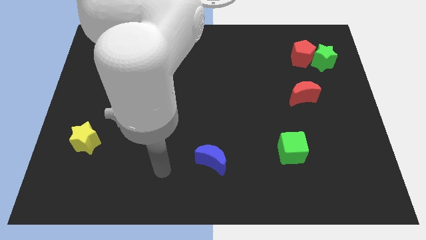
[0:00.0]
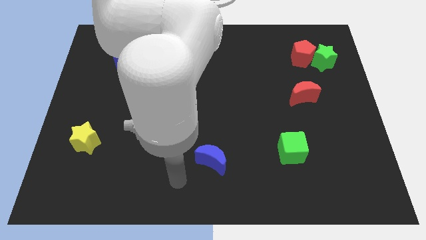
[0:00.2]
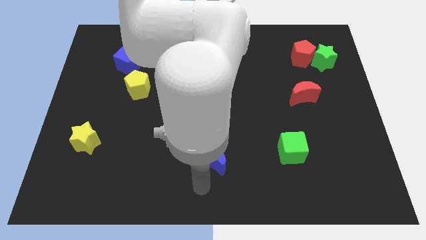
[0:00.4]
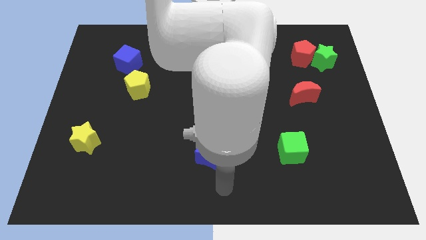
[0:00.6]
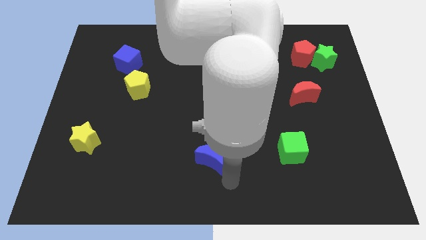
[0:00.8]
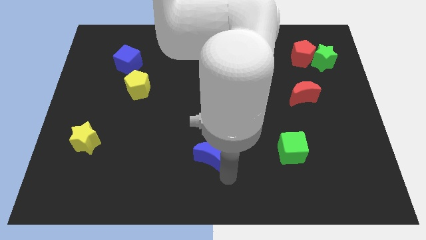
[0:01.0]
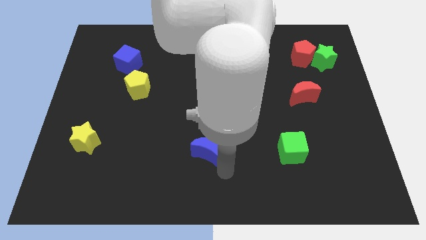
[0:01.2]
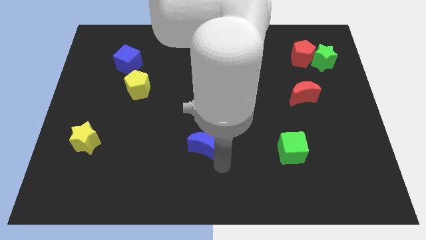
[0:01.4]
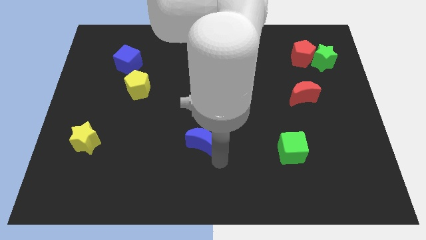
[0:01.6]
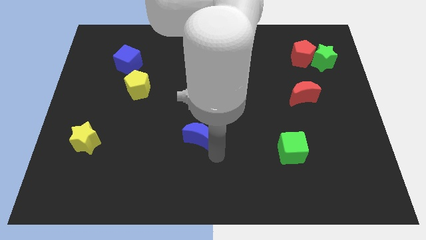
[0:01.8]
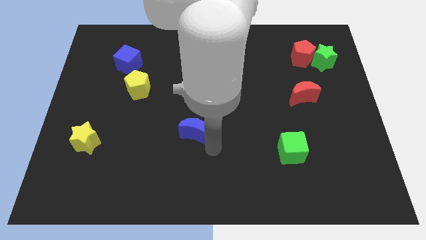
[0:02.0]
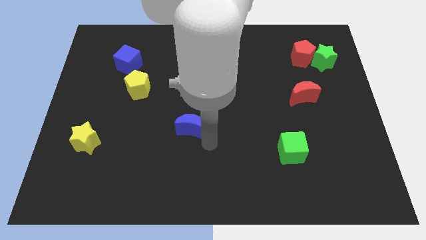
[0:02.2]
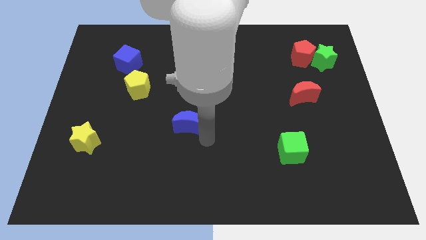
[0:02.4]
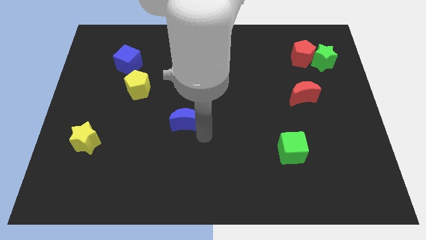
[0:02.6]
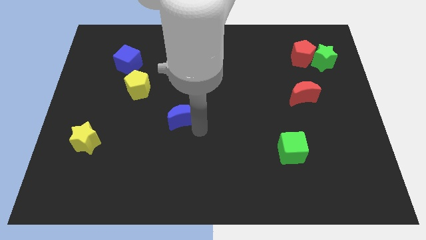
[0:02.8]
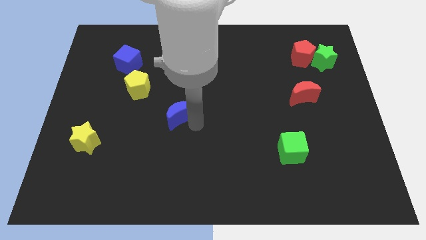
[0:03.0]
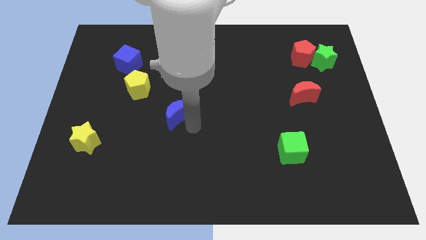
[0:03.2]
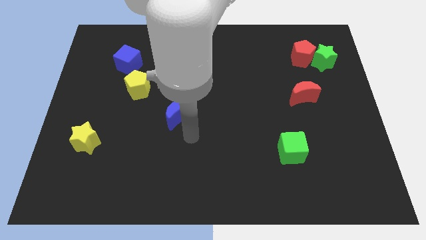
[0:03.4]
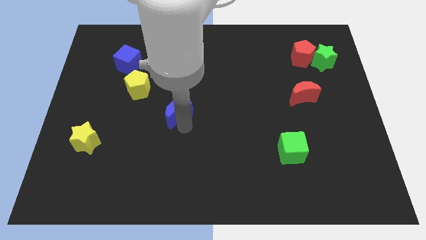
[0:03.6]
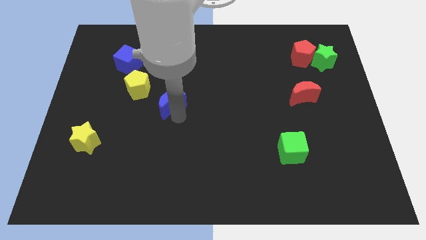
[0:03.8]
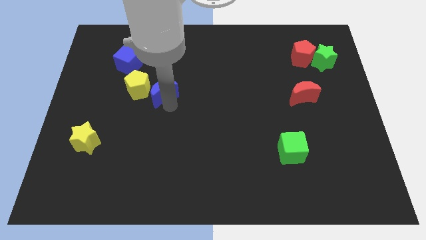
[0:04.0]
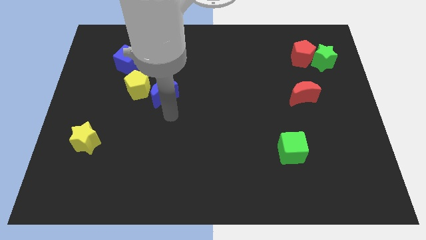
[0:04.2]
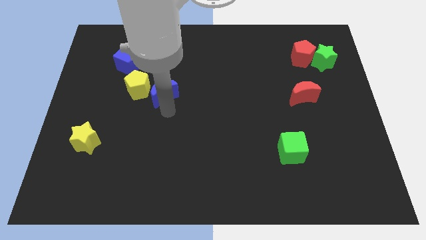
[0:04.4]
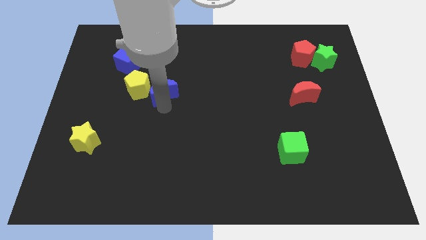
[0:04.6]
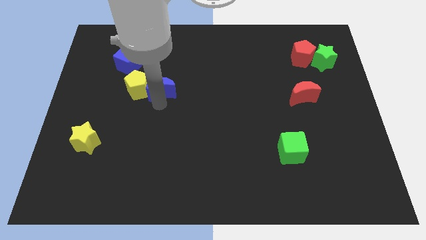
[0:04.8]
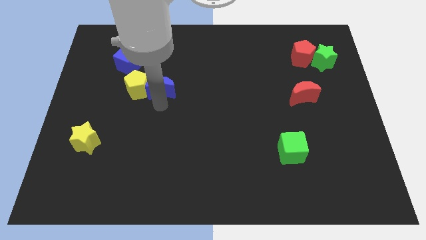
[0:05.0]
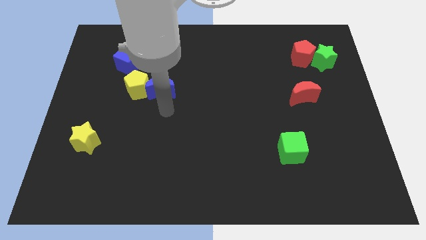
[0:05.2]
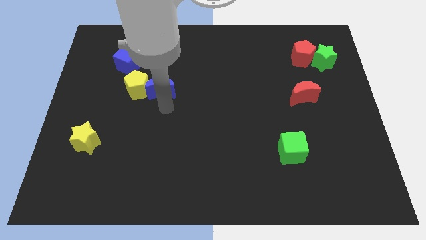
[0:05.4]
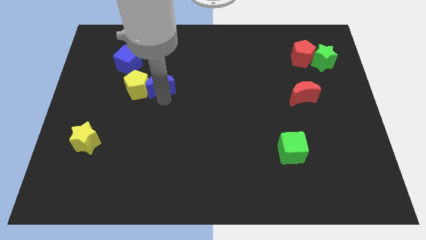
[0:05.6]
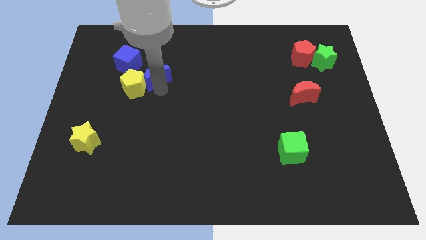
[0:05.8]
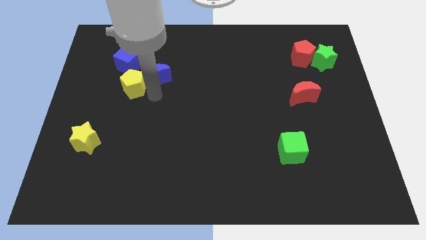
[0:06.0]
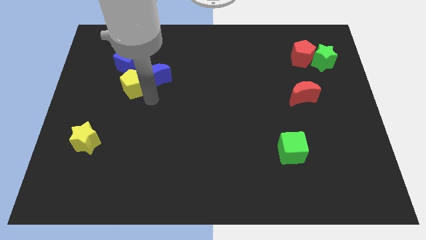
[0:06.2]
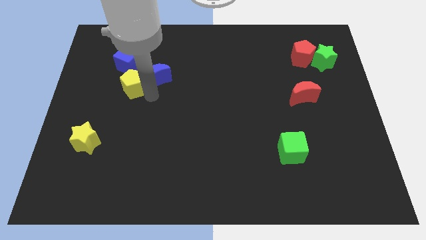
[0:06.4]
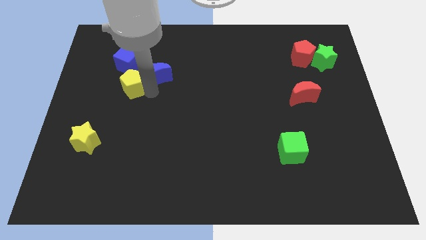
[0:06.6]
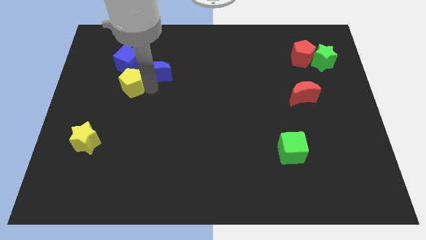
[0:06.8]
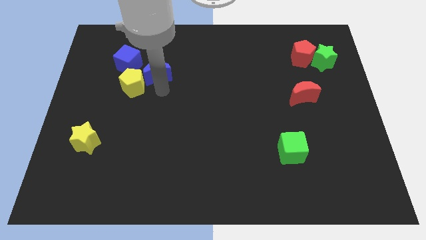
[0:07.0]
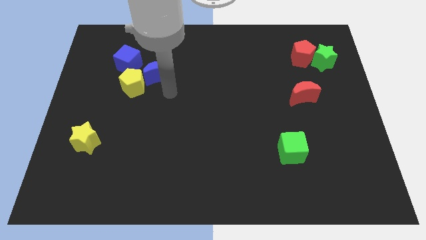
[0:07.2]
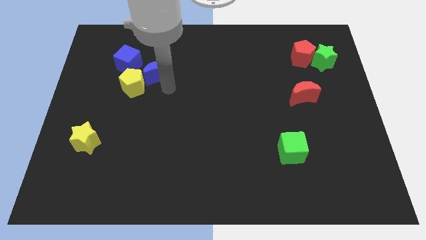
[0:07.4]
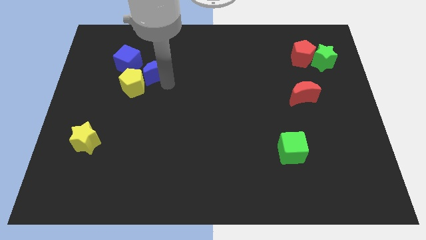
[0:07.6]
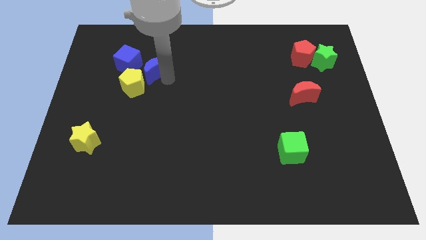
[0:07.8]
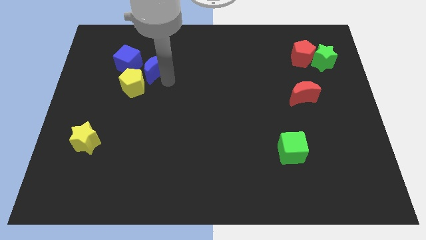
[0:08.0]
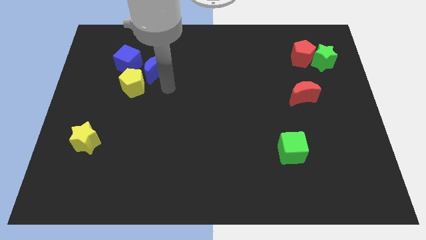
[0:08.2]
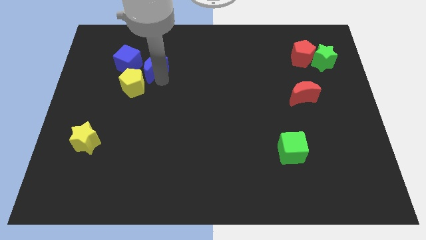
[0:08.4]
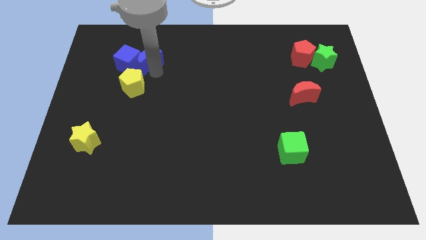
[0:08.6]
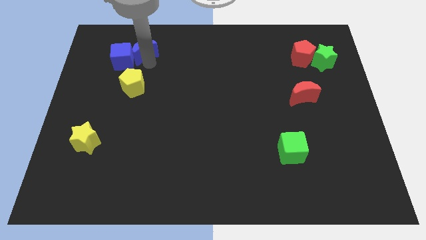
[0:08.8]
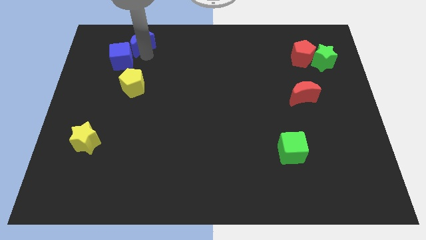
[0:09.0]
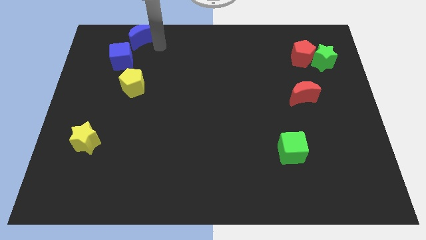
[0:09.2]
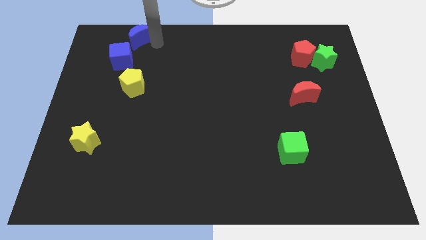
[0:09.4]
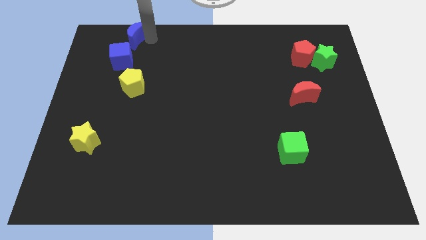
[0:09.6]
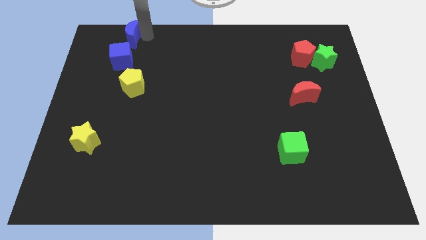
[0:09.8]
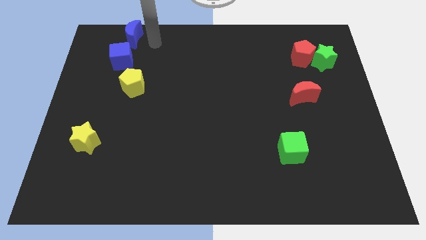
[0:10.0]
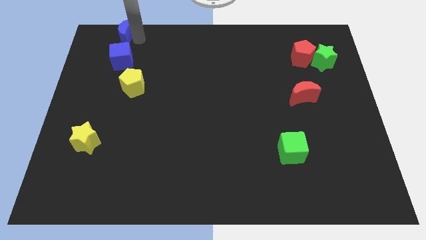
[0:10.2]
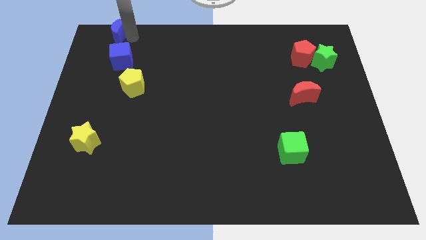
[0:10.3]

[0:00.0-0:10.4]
push the blue moon to the top left corner

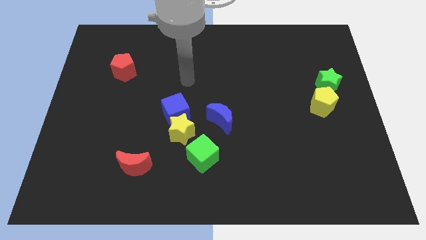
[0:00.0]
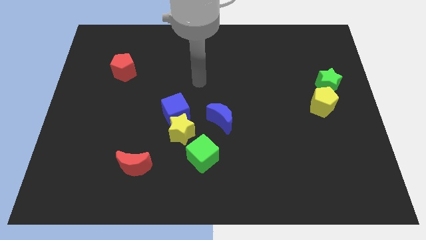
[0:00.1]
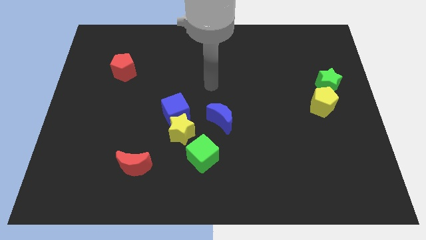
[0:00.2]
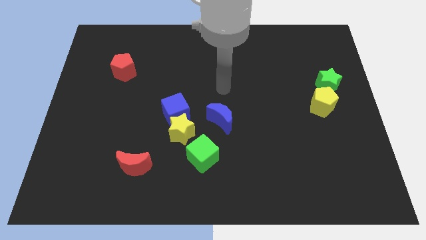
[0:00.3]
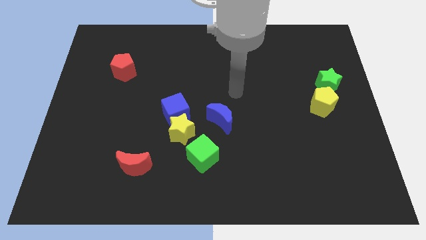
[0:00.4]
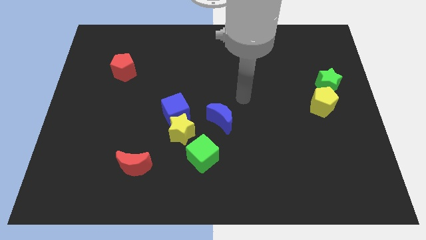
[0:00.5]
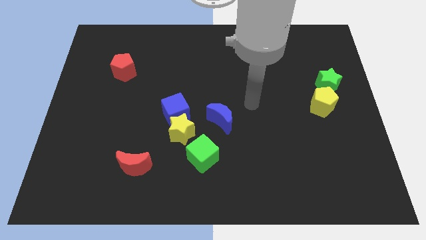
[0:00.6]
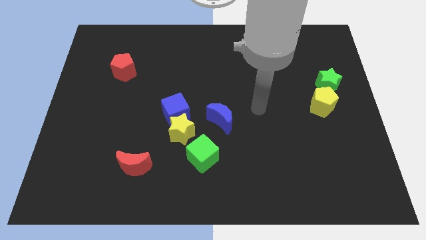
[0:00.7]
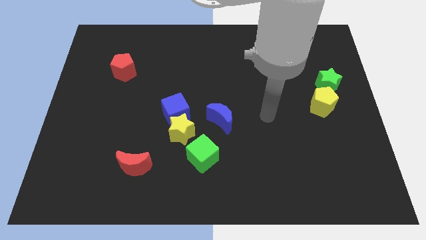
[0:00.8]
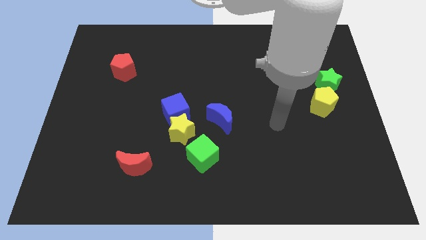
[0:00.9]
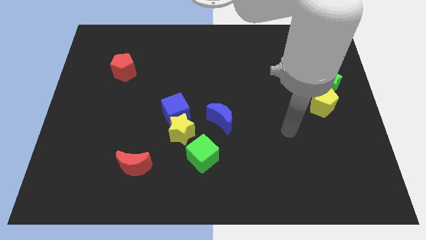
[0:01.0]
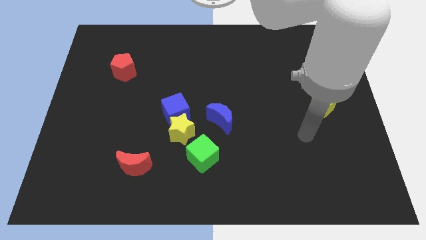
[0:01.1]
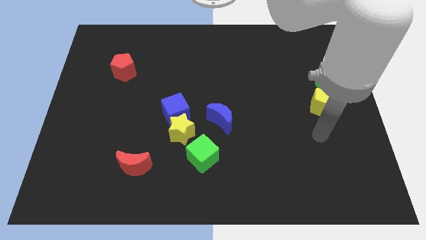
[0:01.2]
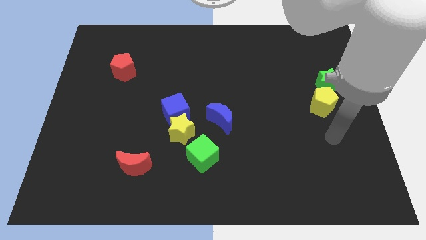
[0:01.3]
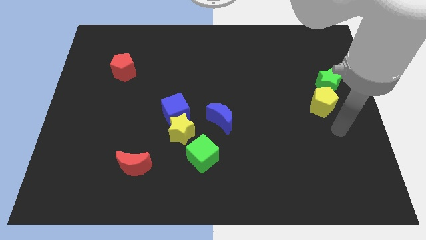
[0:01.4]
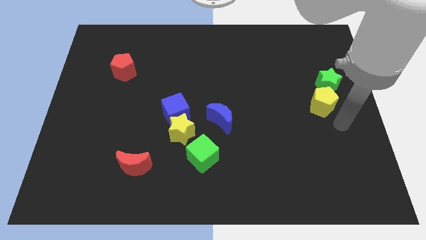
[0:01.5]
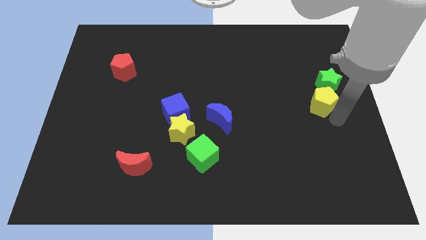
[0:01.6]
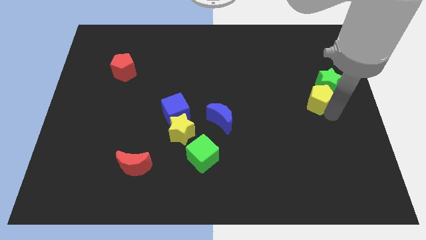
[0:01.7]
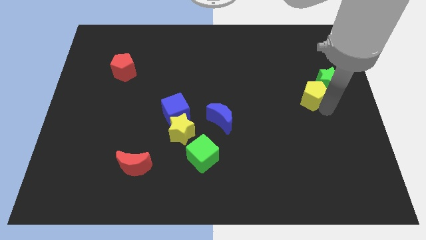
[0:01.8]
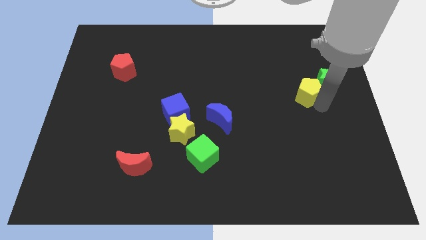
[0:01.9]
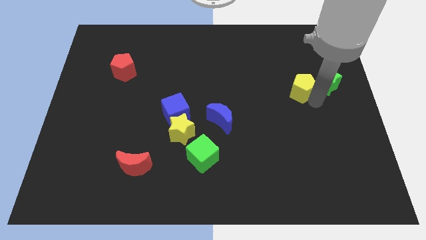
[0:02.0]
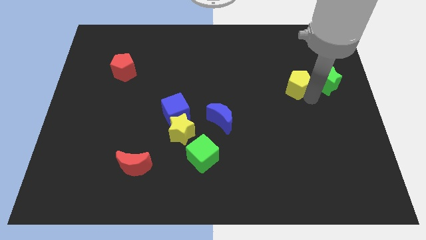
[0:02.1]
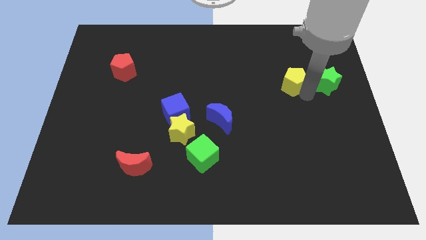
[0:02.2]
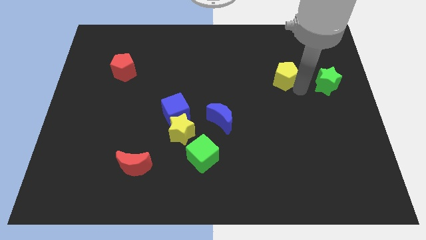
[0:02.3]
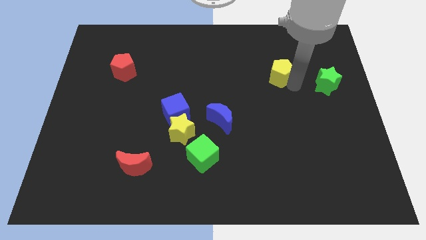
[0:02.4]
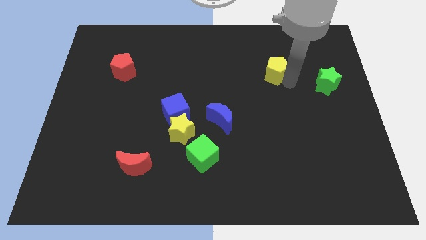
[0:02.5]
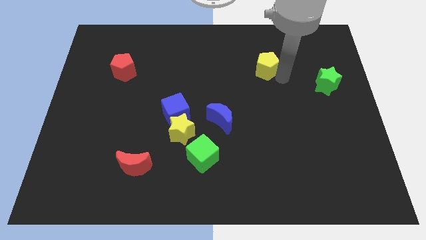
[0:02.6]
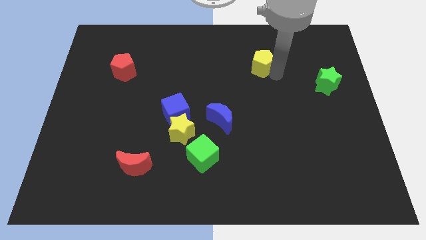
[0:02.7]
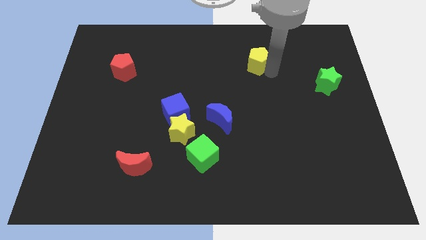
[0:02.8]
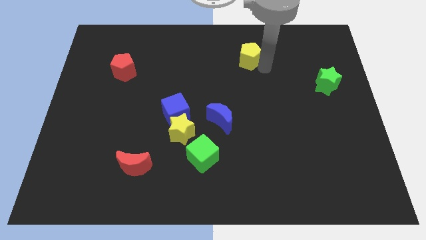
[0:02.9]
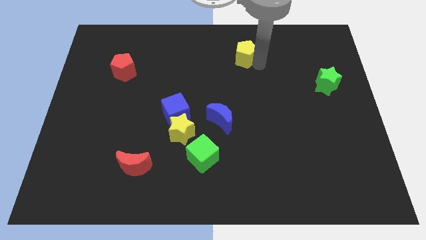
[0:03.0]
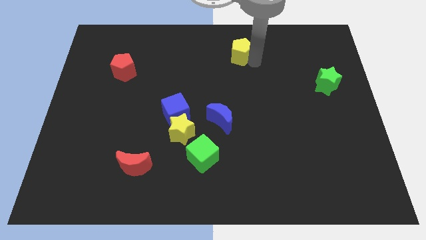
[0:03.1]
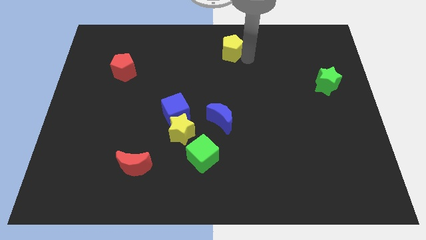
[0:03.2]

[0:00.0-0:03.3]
slide the yellow pentagon to the towards your base
